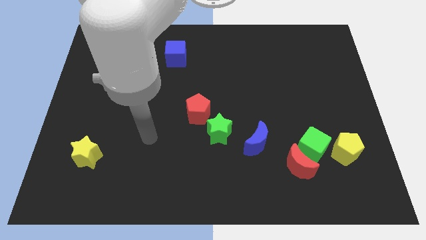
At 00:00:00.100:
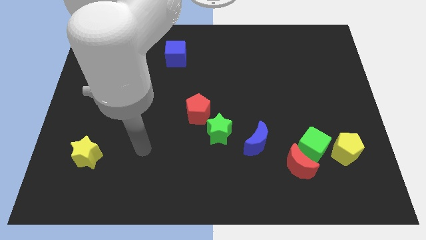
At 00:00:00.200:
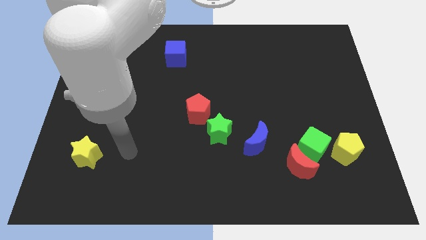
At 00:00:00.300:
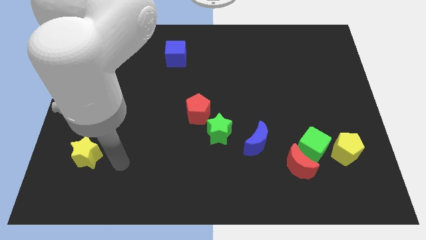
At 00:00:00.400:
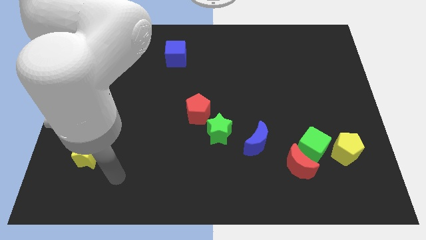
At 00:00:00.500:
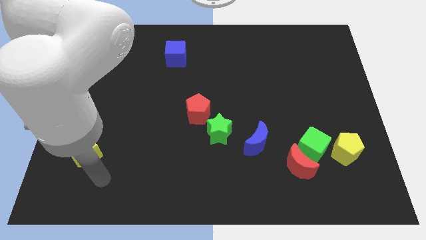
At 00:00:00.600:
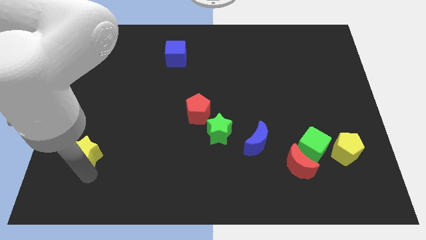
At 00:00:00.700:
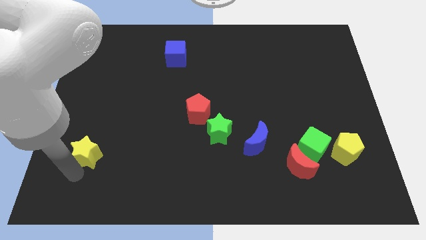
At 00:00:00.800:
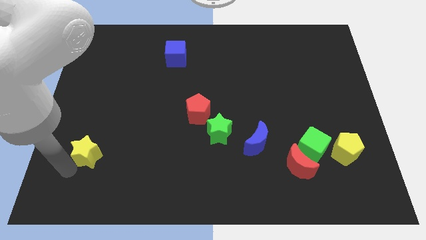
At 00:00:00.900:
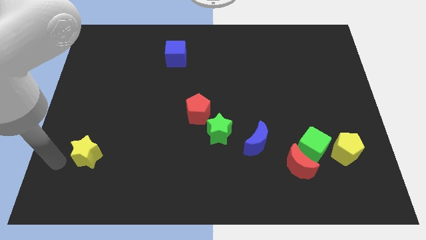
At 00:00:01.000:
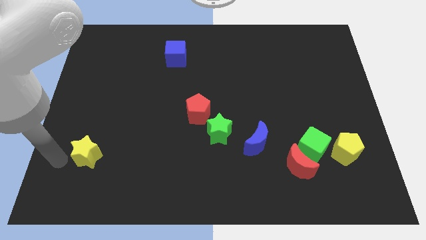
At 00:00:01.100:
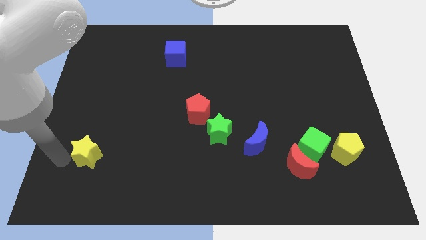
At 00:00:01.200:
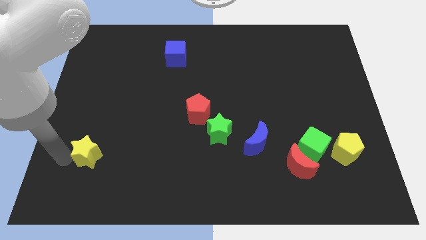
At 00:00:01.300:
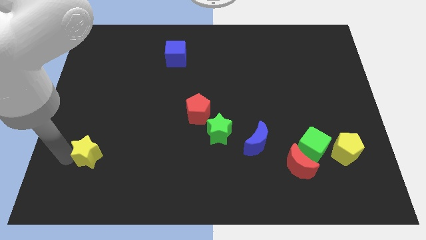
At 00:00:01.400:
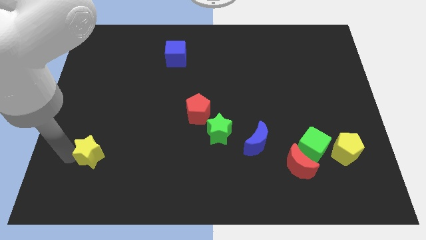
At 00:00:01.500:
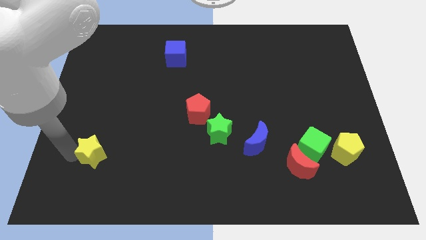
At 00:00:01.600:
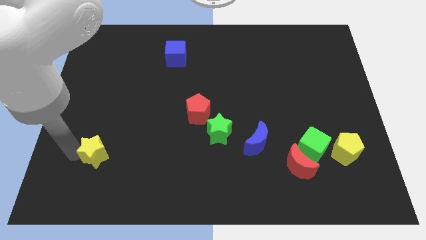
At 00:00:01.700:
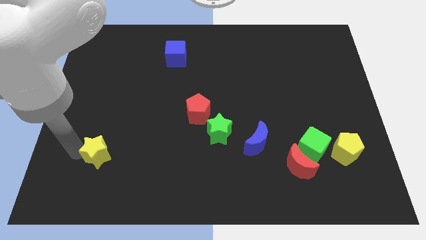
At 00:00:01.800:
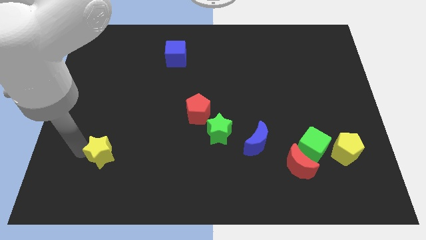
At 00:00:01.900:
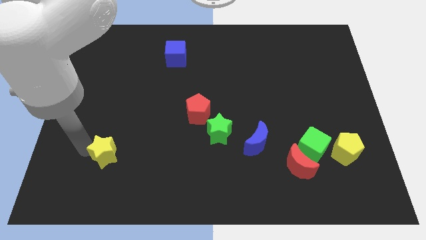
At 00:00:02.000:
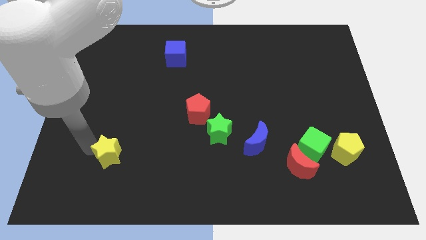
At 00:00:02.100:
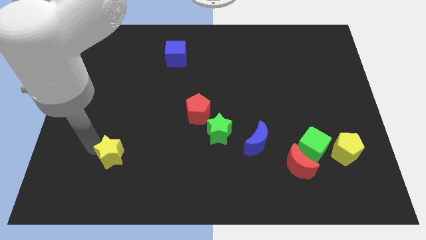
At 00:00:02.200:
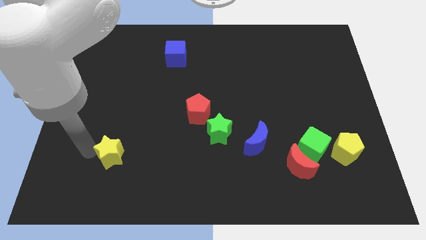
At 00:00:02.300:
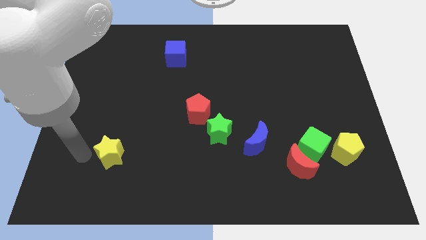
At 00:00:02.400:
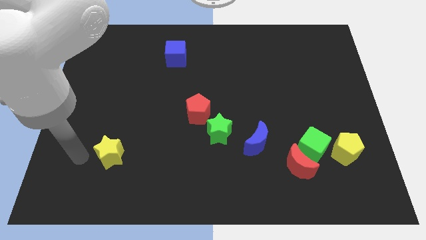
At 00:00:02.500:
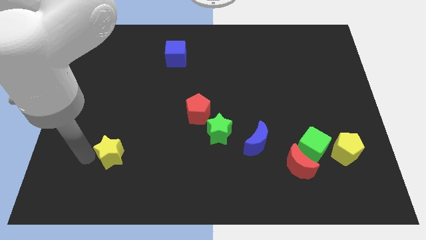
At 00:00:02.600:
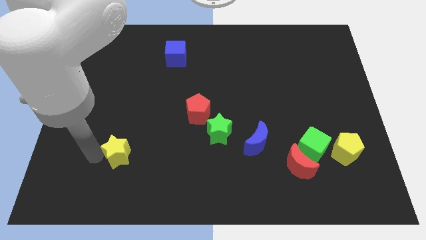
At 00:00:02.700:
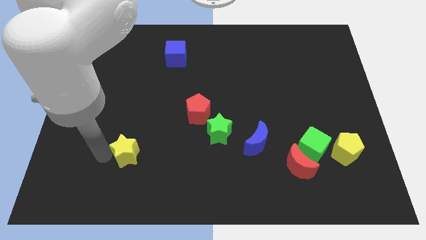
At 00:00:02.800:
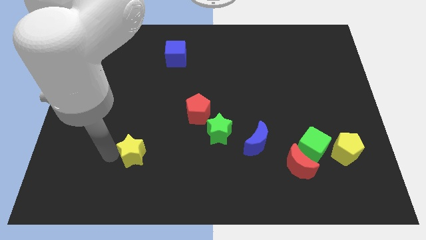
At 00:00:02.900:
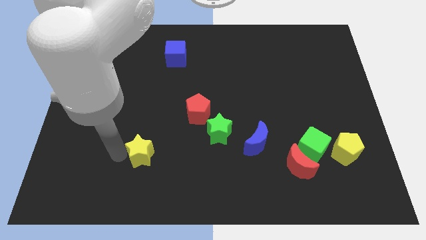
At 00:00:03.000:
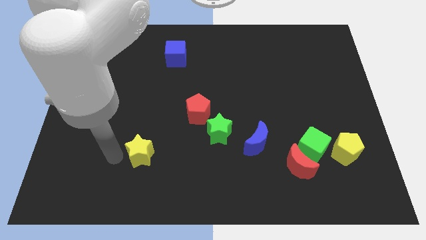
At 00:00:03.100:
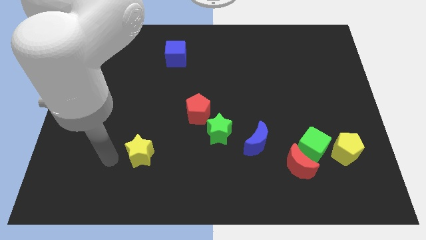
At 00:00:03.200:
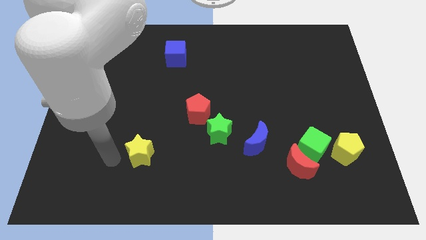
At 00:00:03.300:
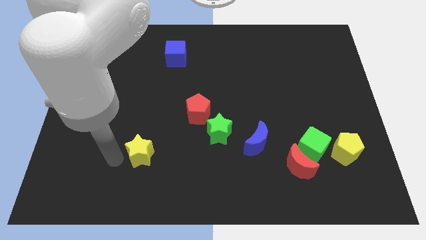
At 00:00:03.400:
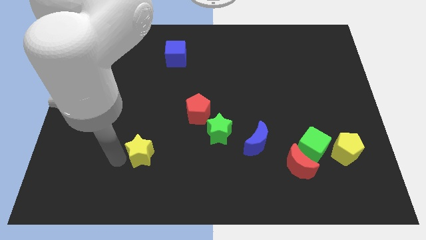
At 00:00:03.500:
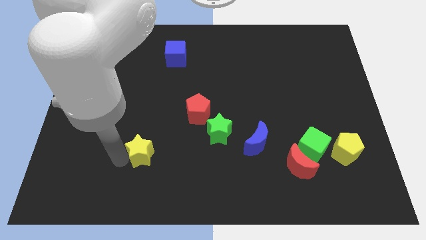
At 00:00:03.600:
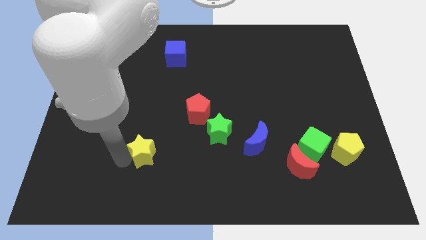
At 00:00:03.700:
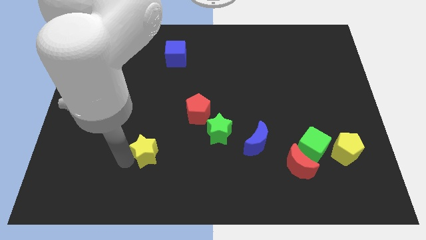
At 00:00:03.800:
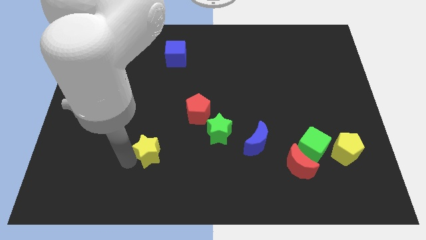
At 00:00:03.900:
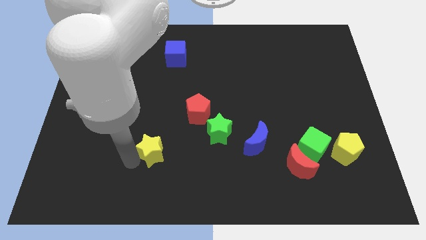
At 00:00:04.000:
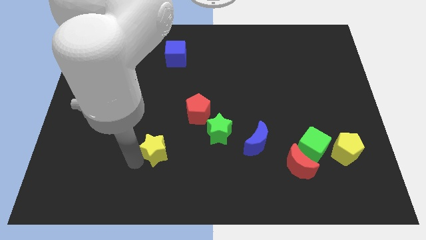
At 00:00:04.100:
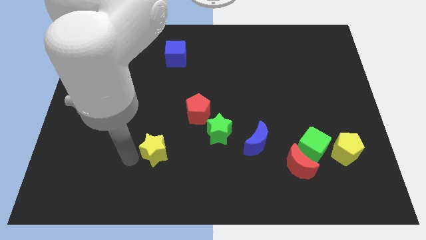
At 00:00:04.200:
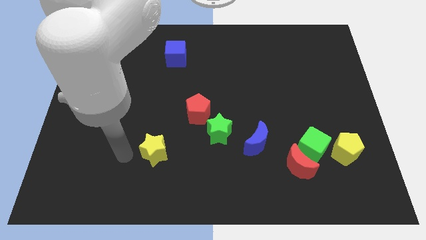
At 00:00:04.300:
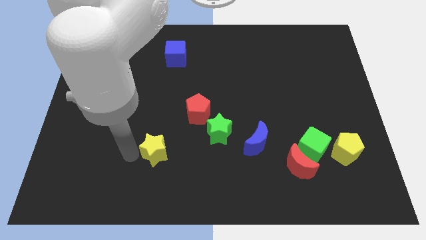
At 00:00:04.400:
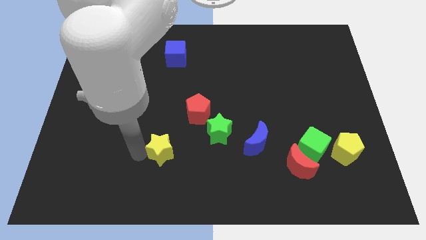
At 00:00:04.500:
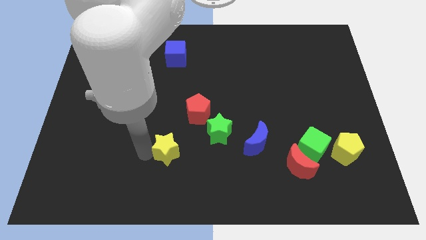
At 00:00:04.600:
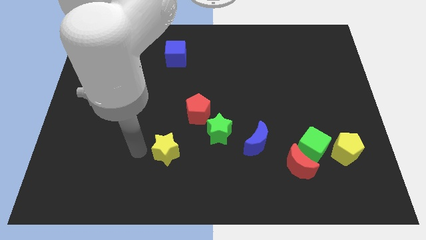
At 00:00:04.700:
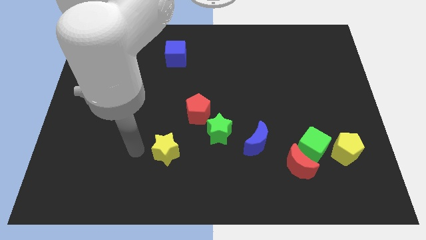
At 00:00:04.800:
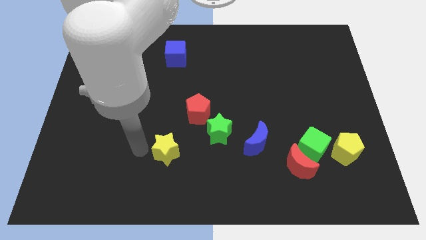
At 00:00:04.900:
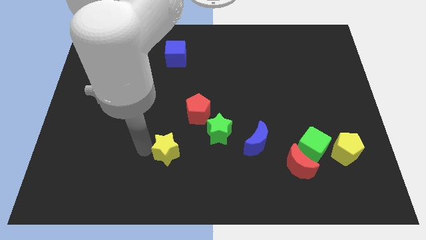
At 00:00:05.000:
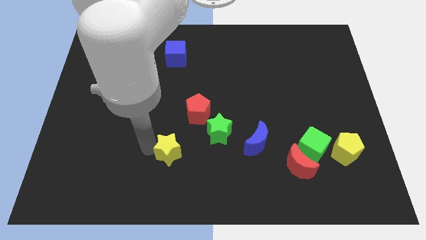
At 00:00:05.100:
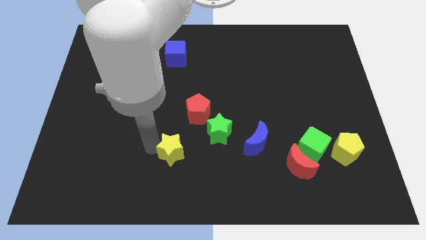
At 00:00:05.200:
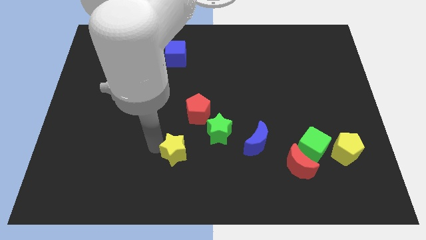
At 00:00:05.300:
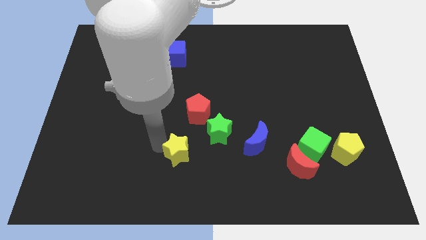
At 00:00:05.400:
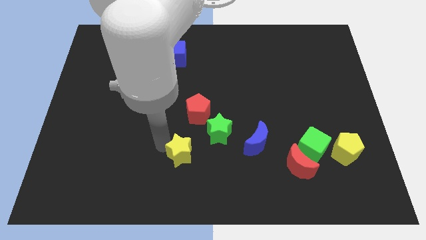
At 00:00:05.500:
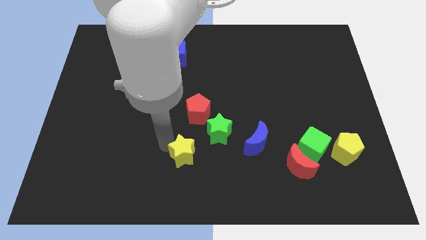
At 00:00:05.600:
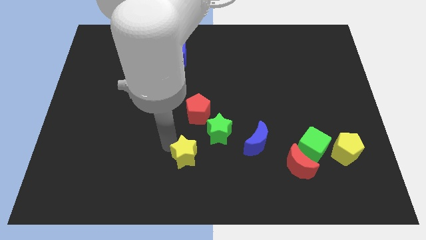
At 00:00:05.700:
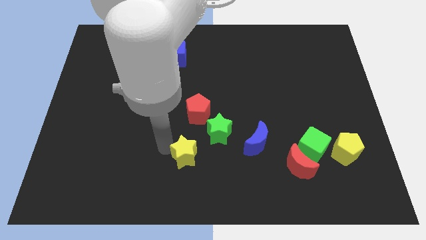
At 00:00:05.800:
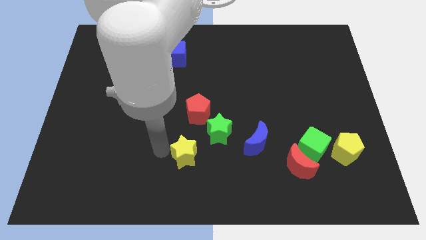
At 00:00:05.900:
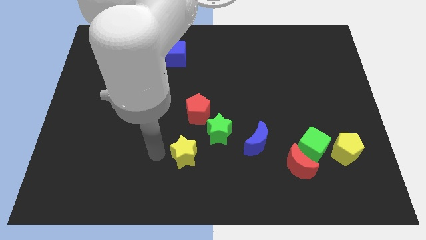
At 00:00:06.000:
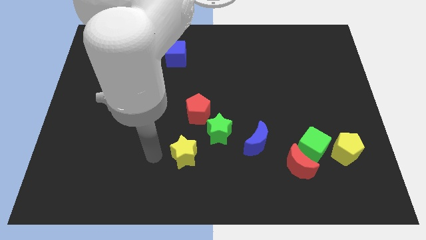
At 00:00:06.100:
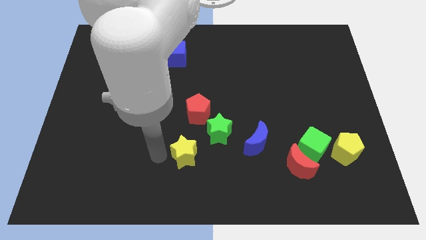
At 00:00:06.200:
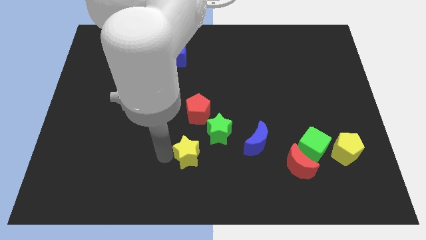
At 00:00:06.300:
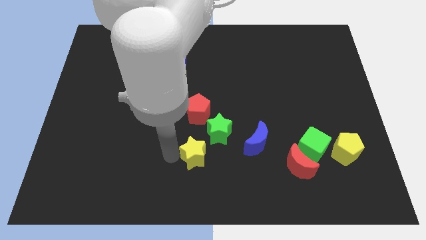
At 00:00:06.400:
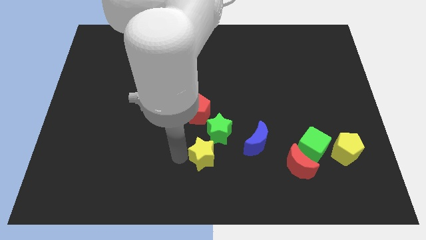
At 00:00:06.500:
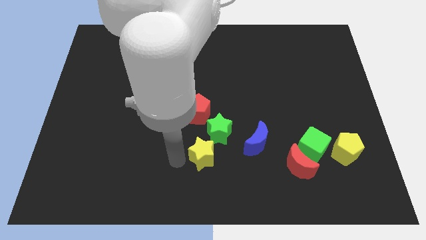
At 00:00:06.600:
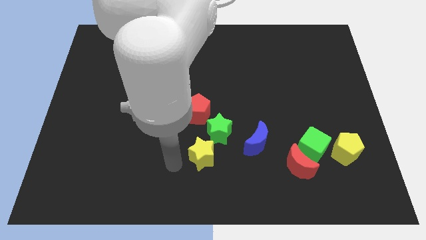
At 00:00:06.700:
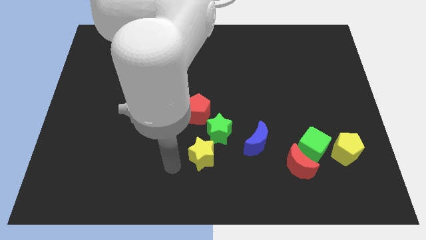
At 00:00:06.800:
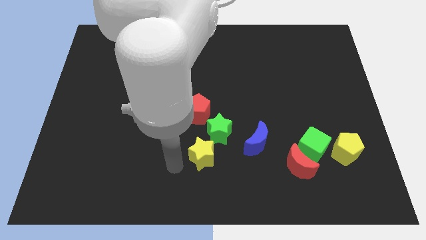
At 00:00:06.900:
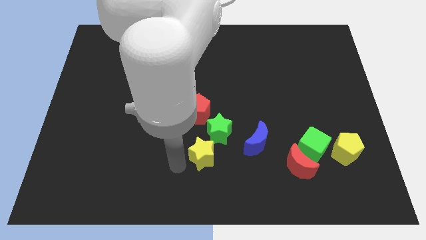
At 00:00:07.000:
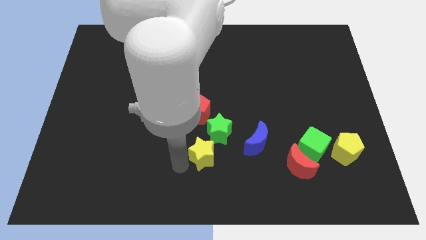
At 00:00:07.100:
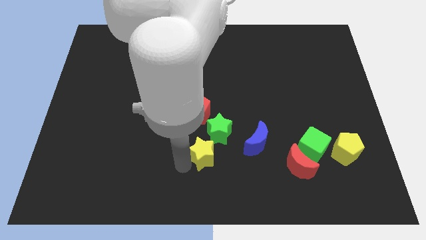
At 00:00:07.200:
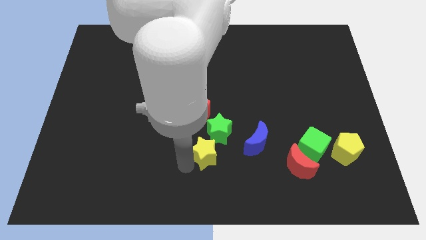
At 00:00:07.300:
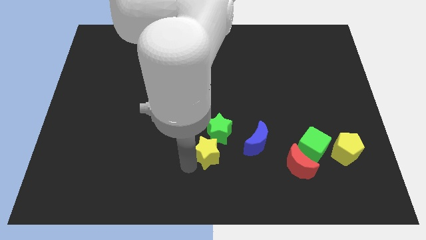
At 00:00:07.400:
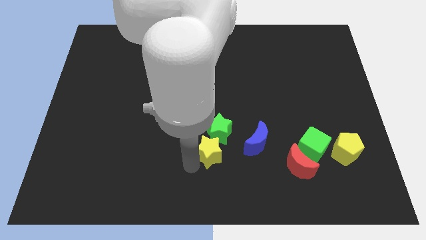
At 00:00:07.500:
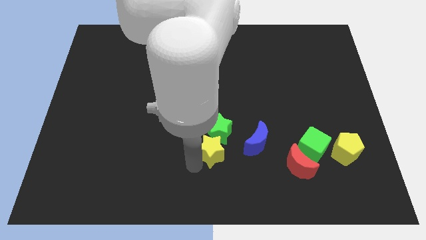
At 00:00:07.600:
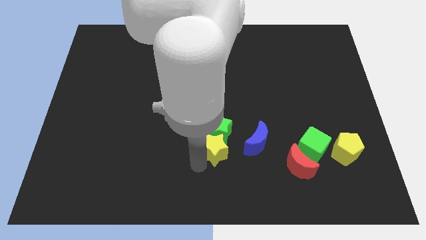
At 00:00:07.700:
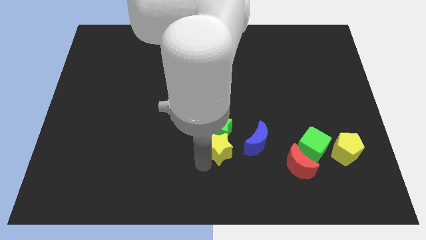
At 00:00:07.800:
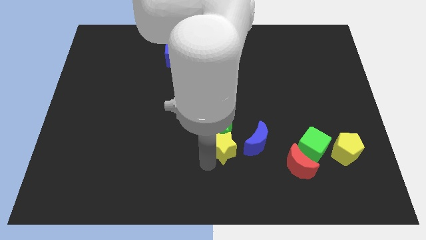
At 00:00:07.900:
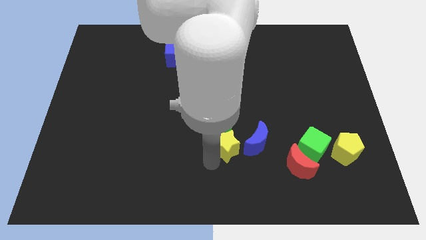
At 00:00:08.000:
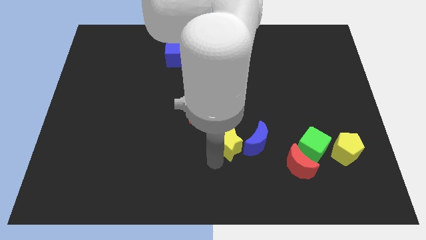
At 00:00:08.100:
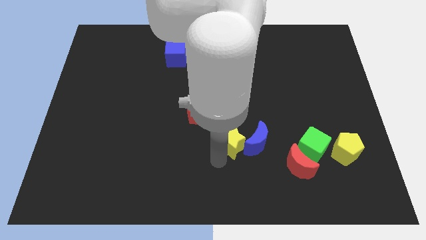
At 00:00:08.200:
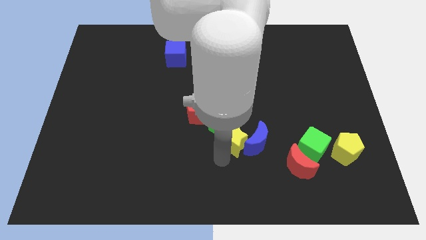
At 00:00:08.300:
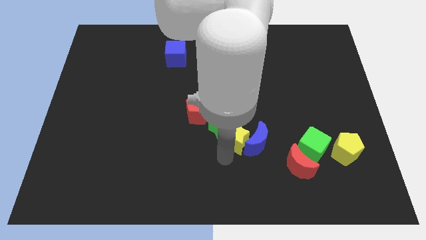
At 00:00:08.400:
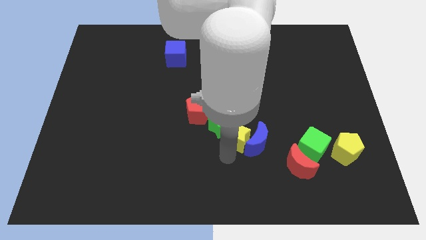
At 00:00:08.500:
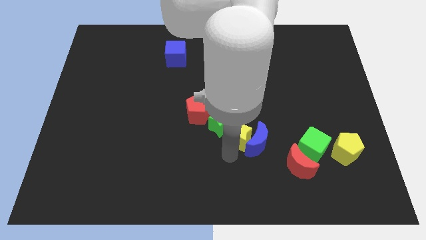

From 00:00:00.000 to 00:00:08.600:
push the yellow star to the left side of the green cube
